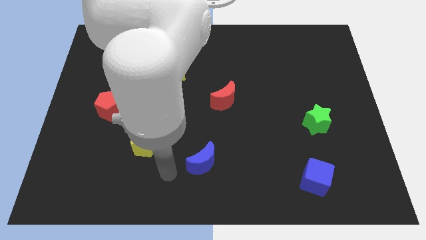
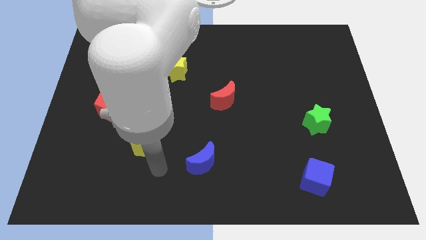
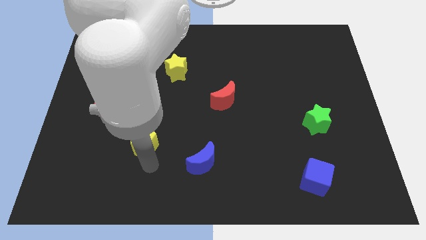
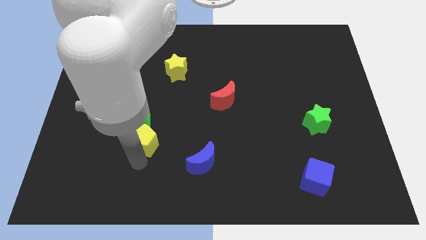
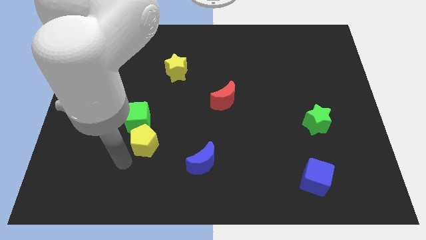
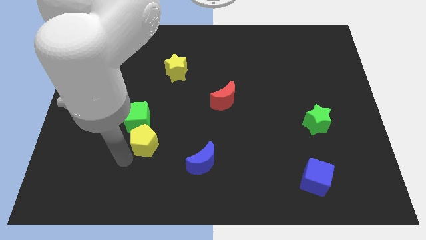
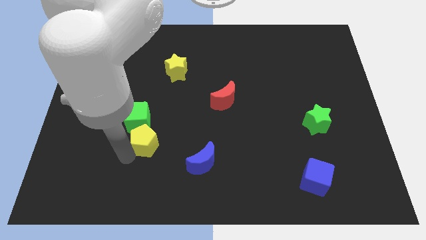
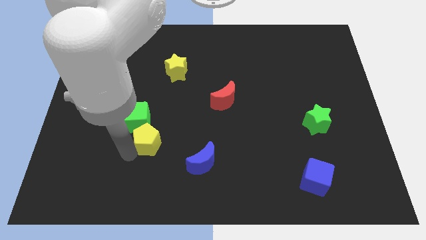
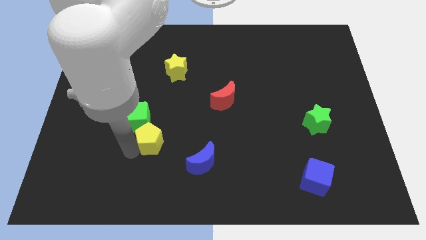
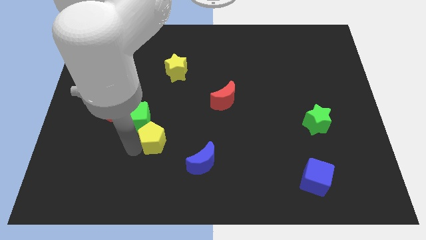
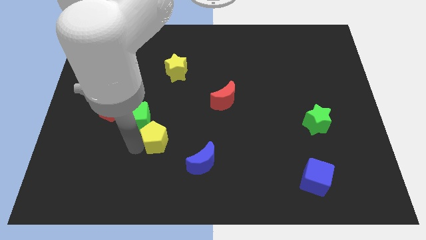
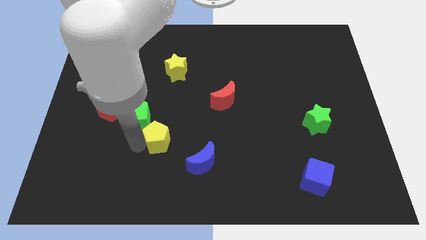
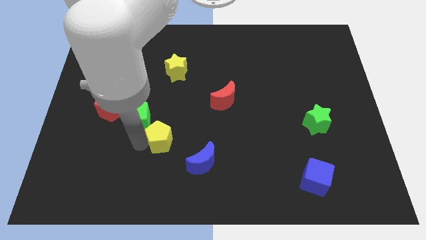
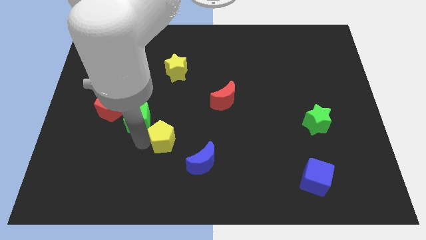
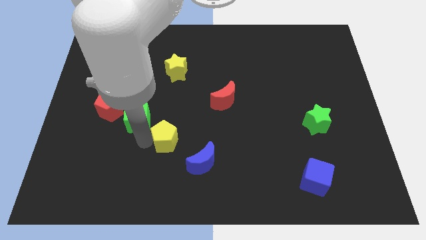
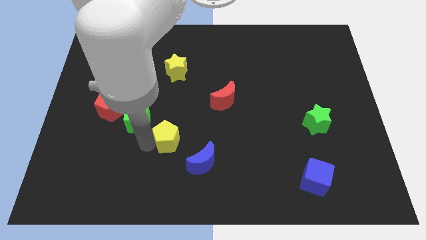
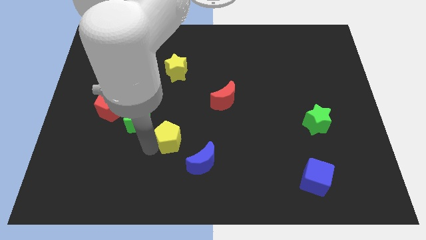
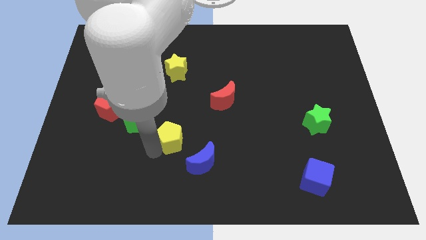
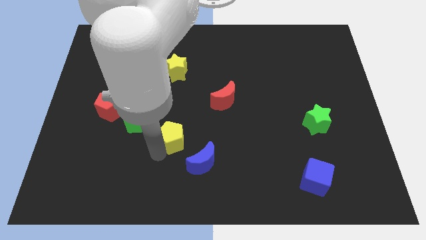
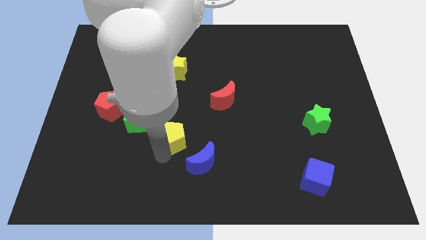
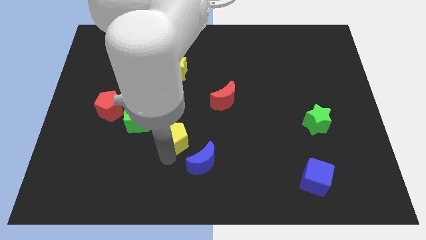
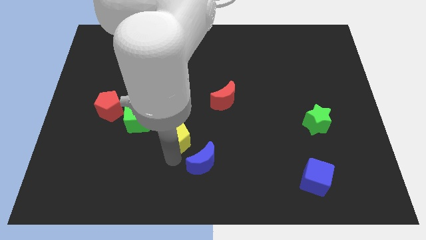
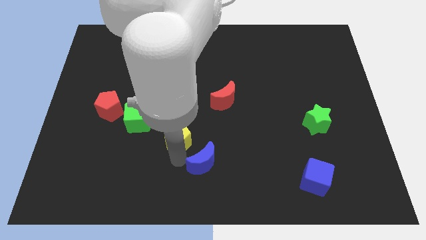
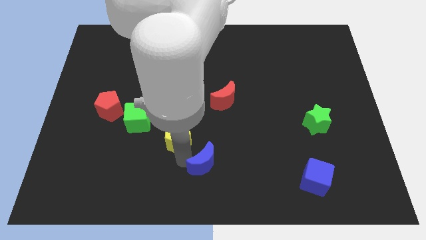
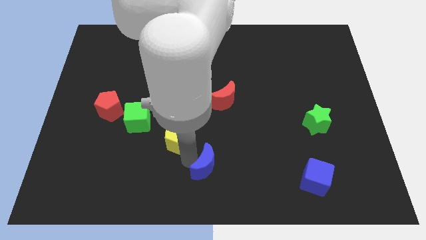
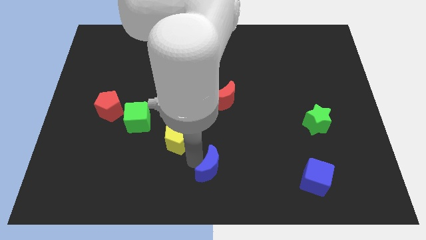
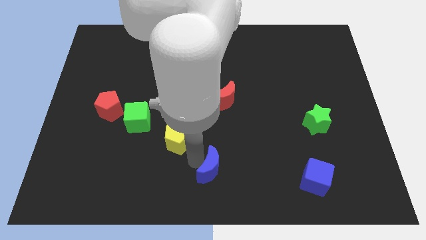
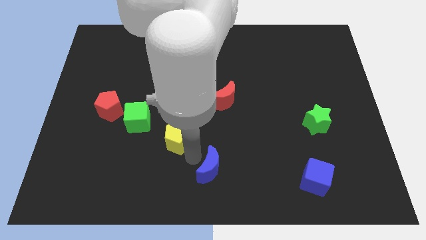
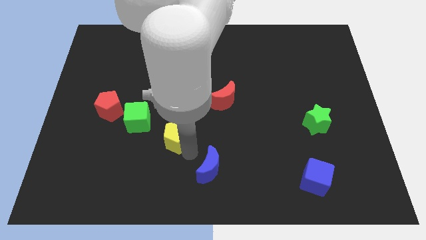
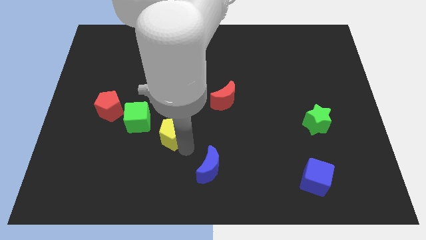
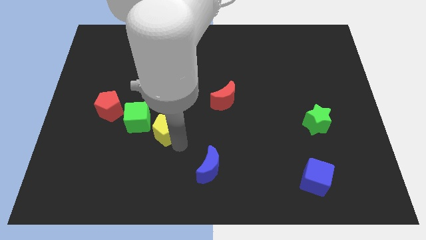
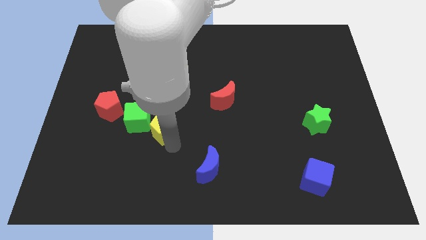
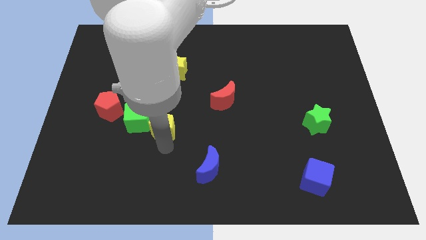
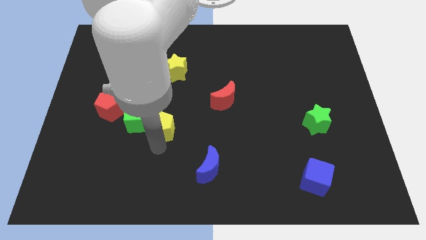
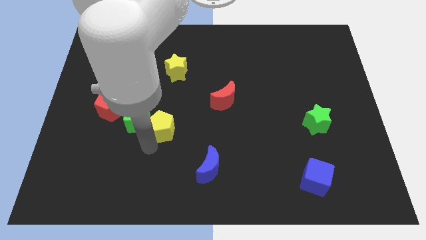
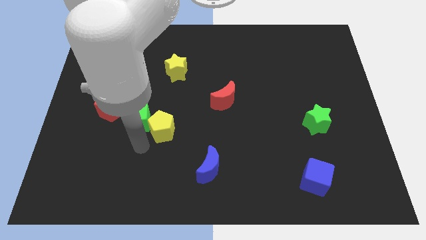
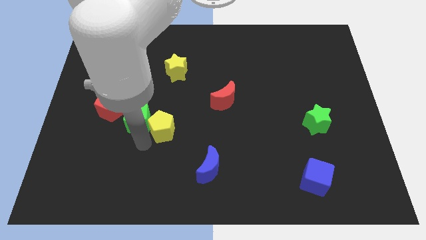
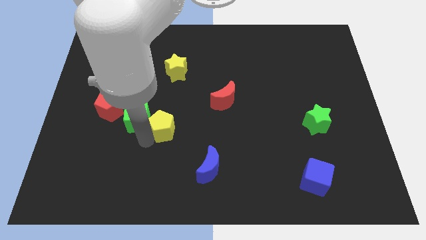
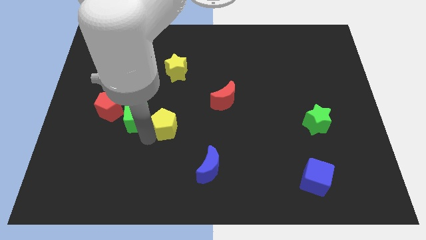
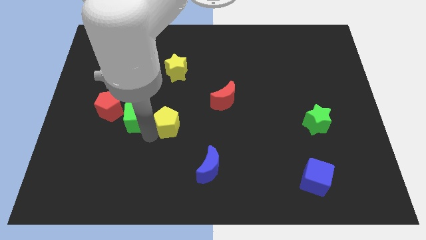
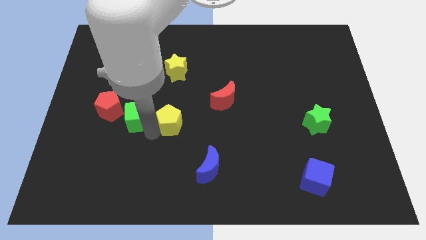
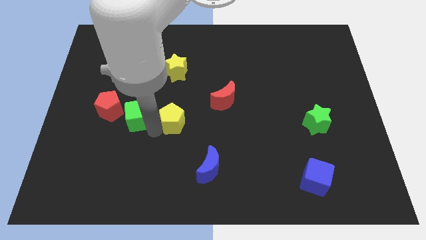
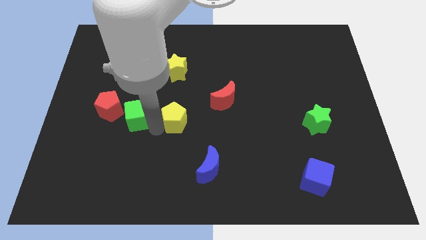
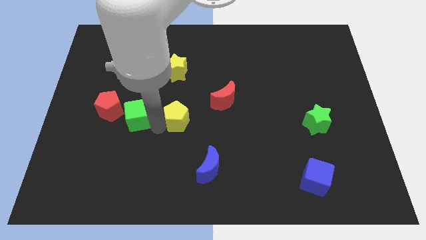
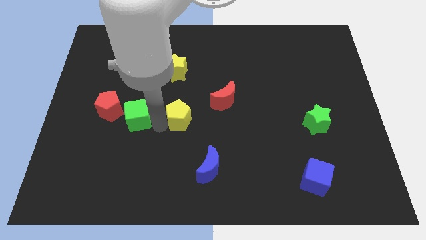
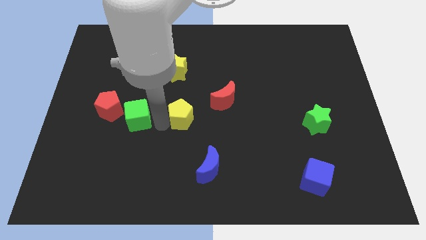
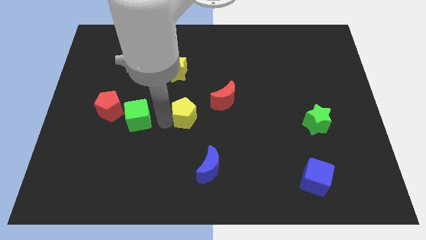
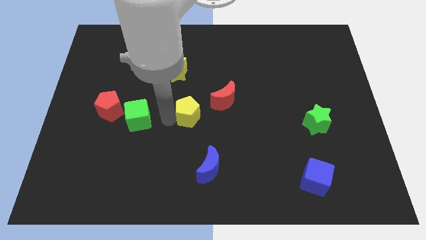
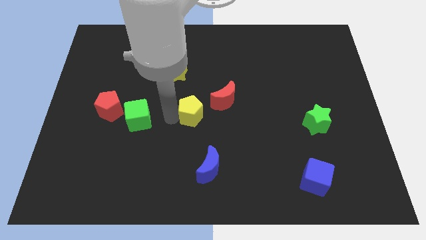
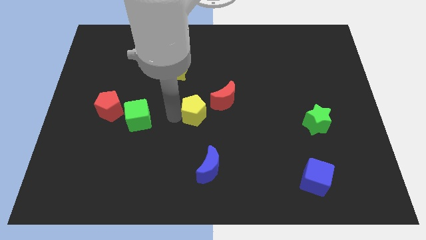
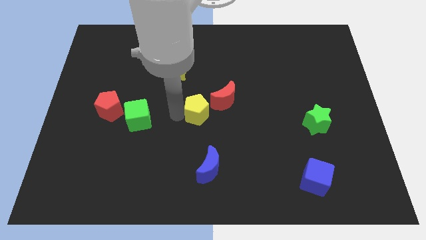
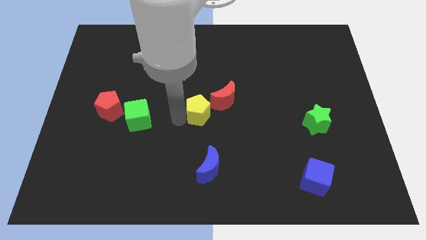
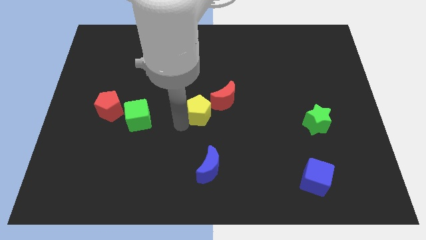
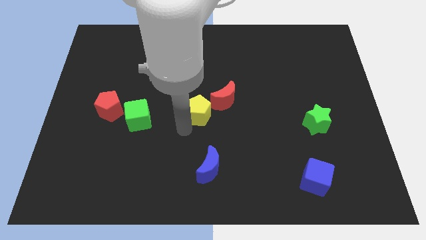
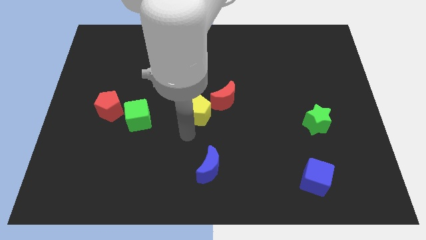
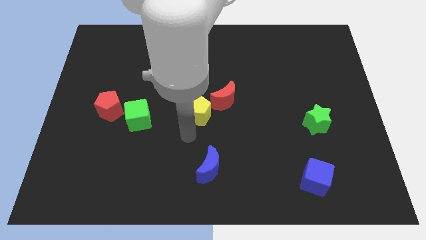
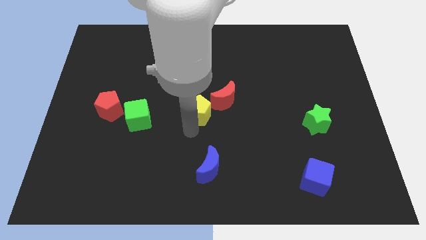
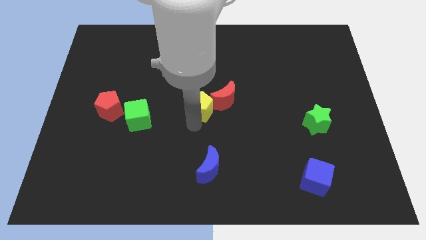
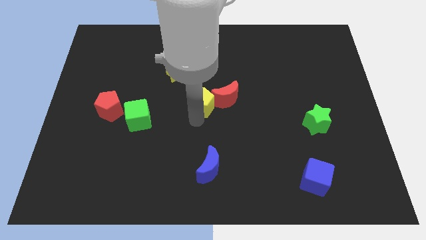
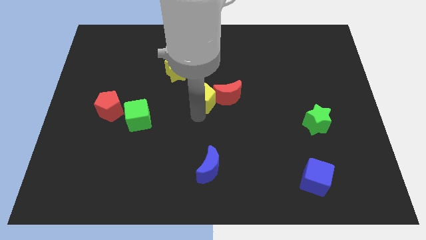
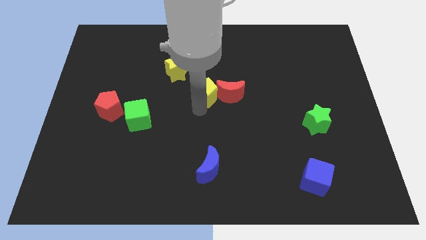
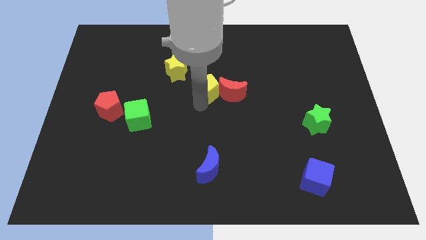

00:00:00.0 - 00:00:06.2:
push the yellow pentagon up and then right

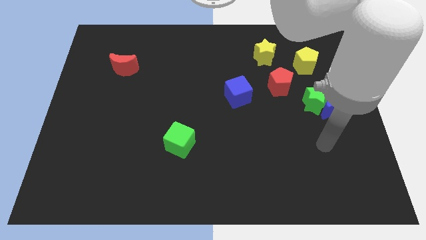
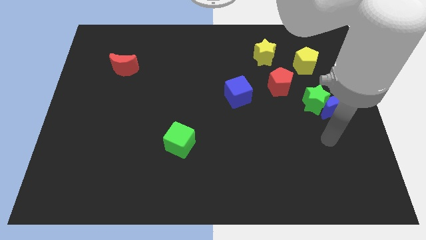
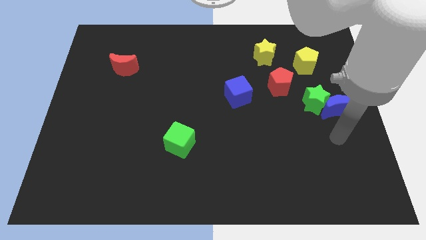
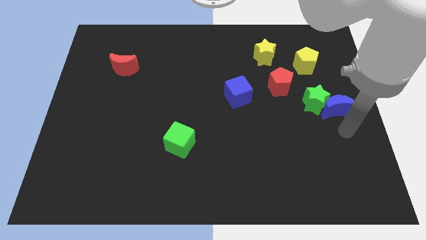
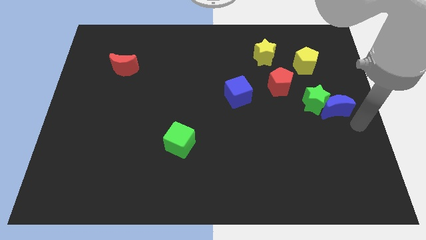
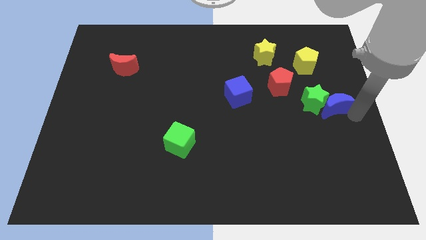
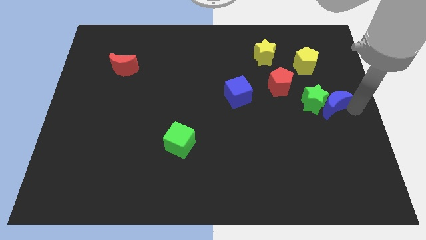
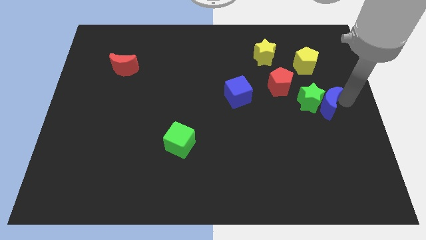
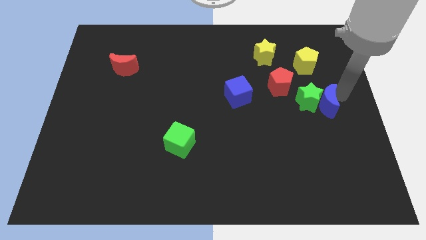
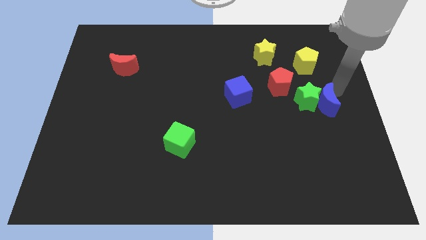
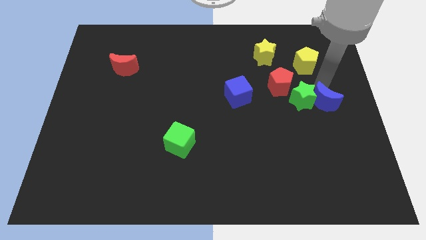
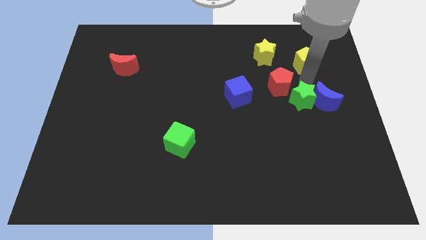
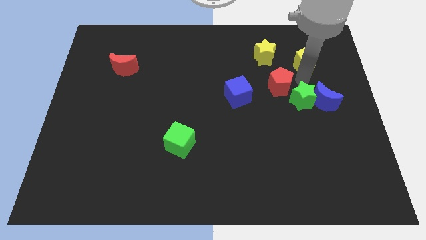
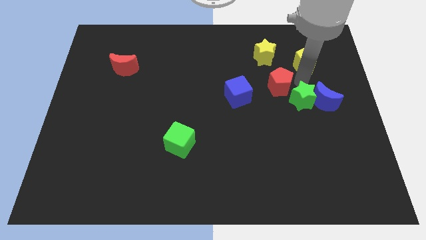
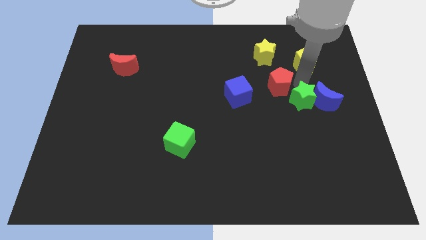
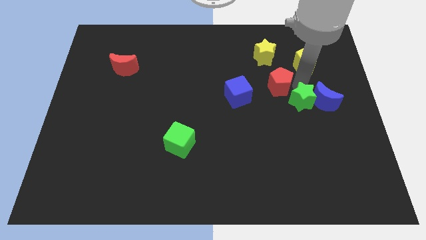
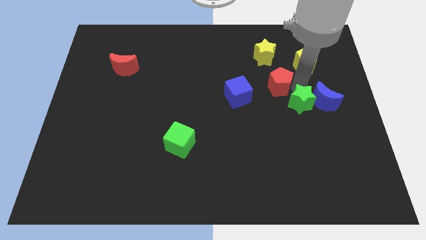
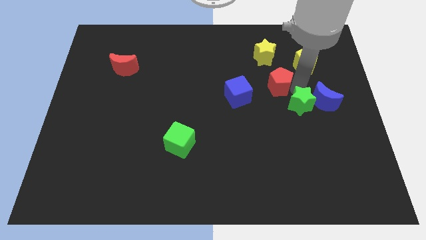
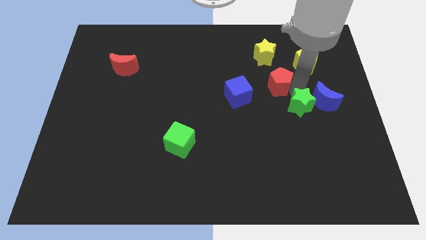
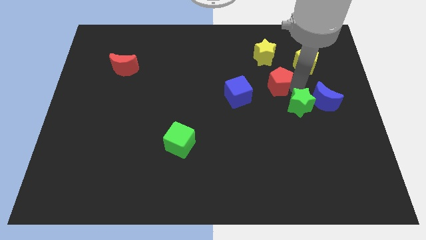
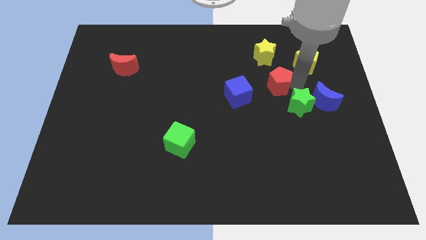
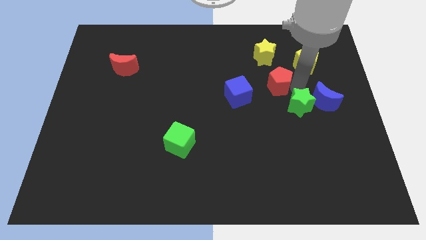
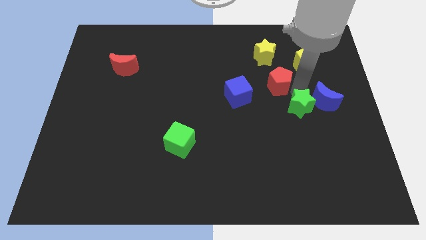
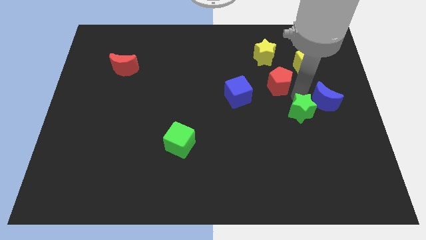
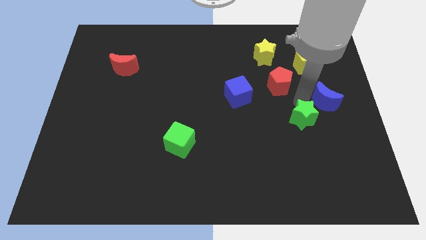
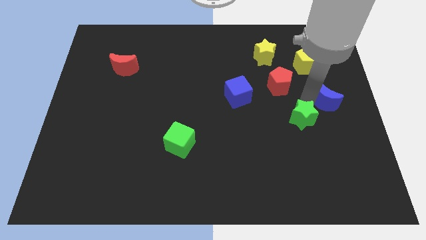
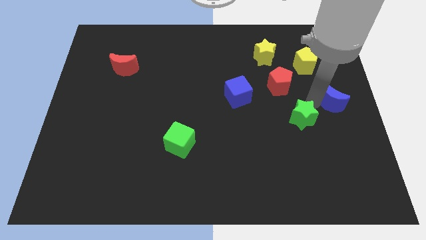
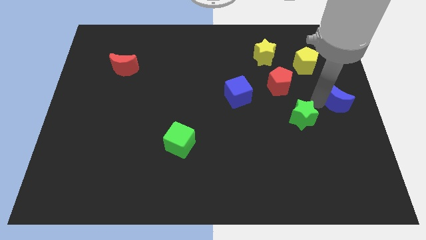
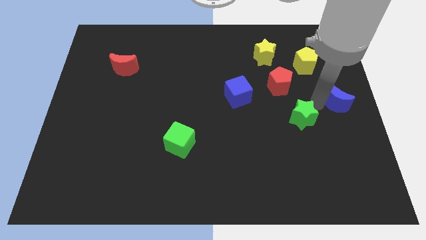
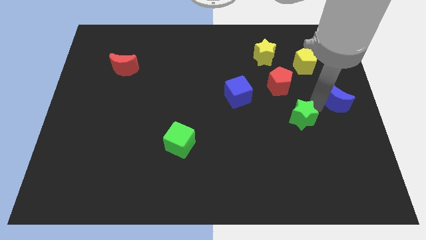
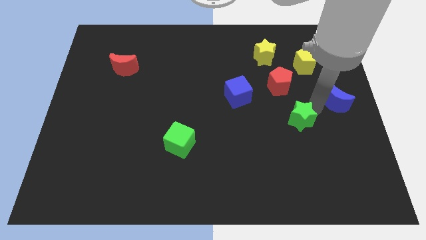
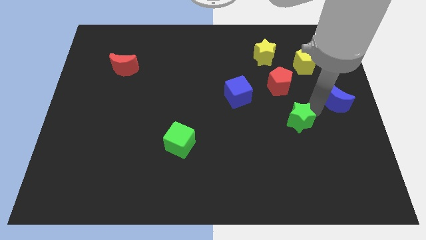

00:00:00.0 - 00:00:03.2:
slide the green star somewhat down and left diagonally
